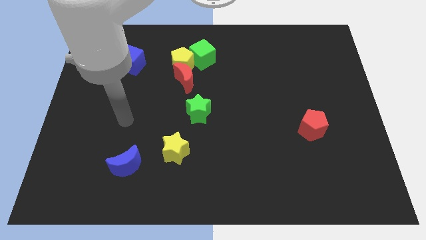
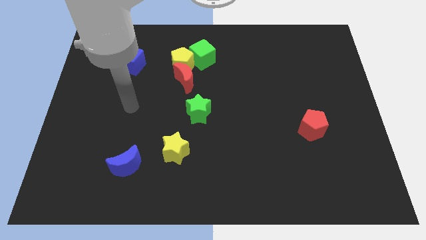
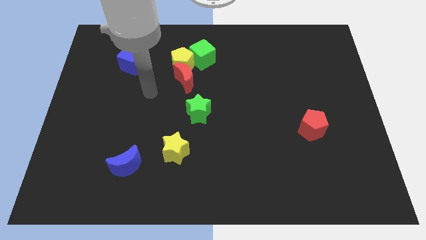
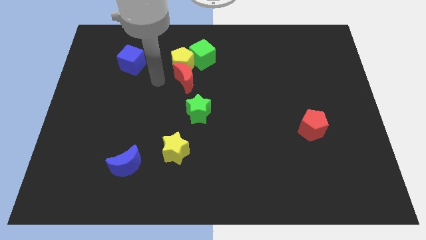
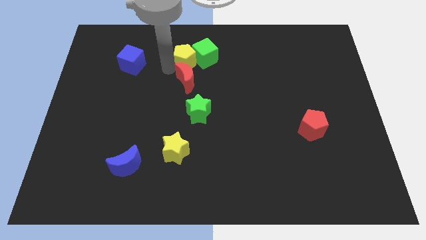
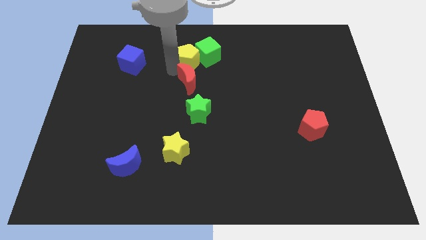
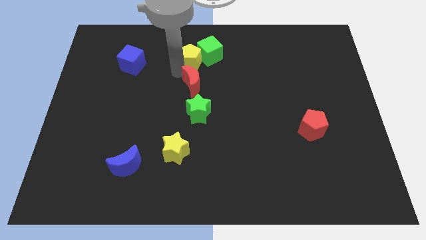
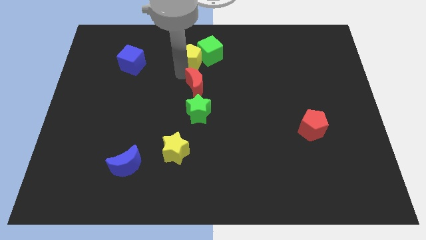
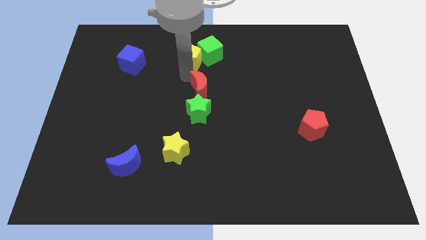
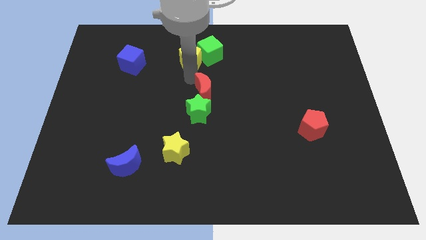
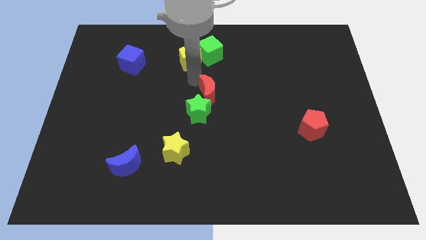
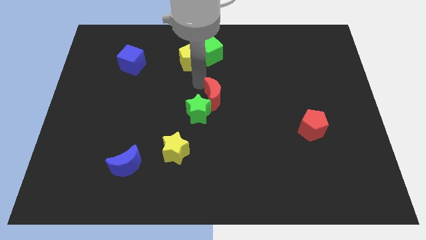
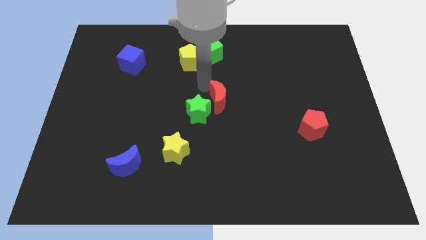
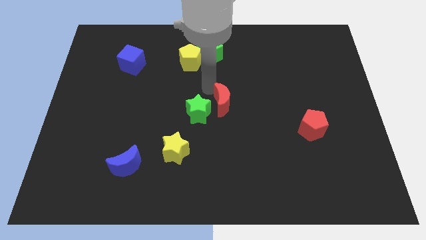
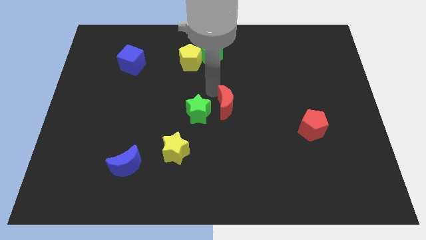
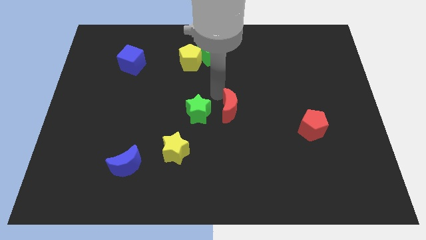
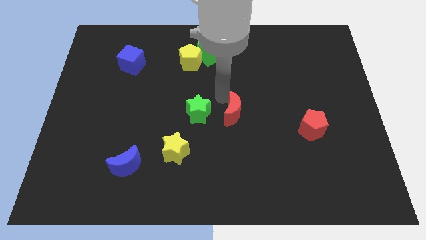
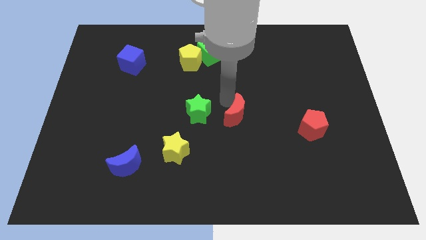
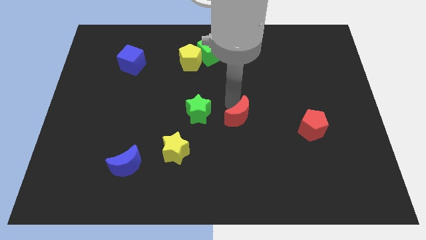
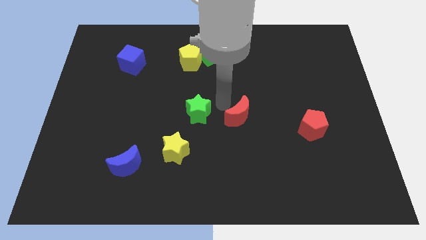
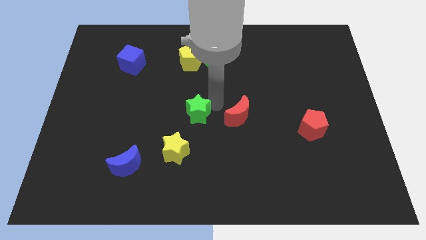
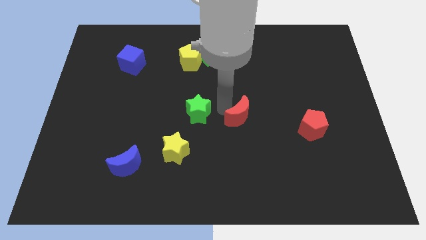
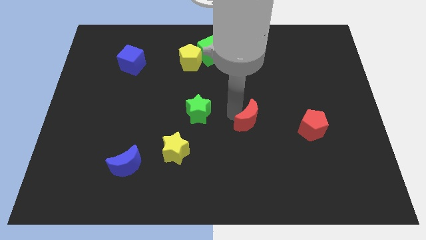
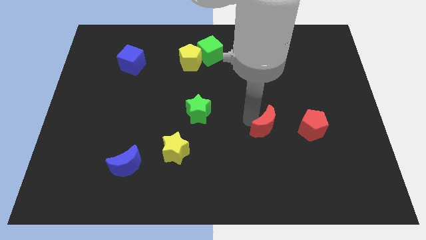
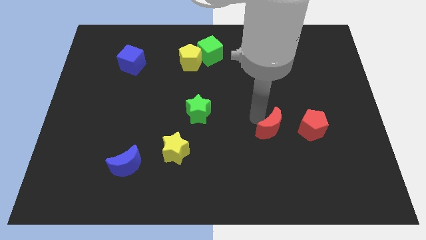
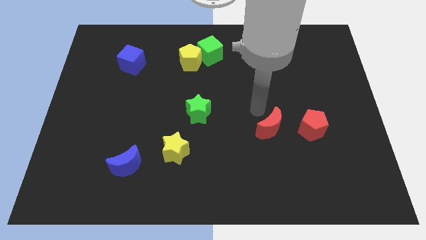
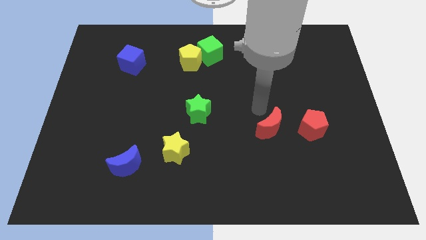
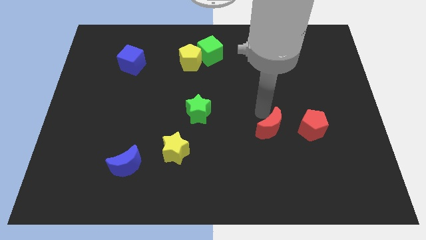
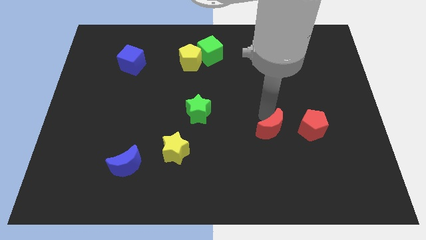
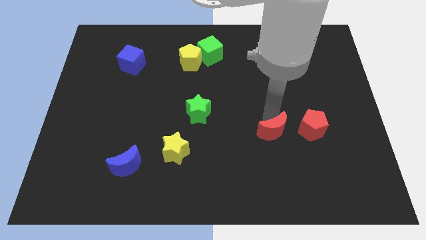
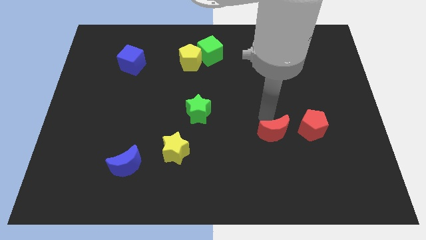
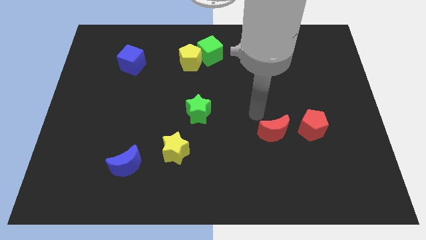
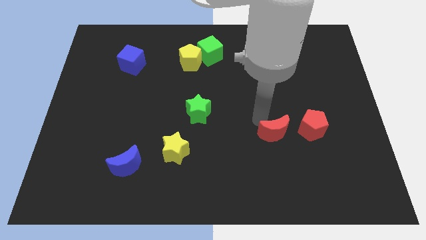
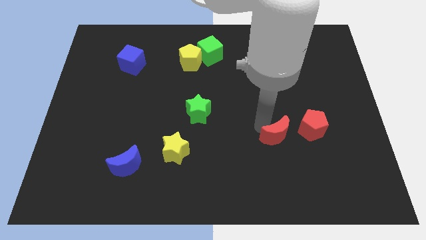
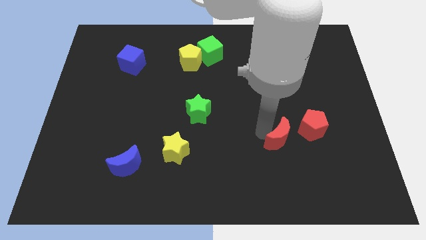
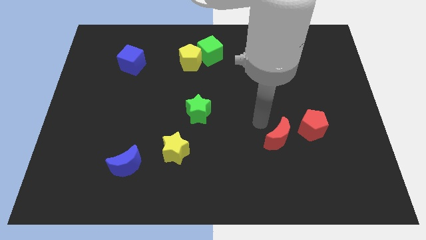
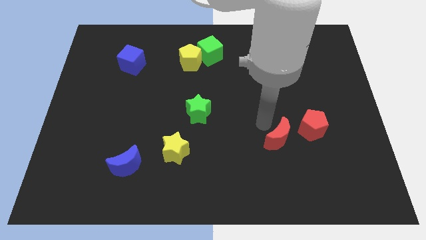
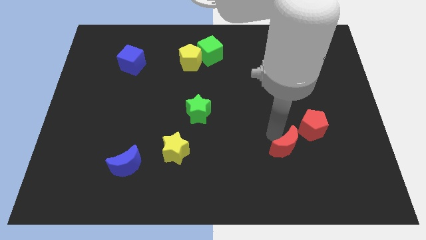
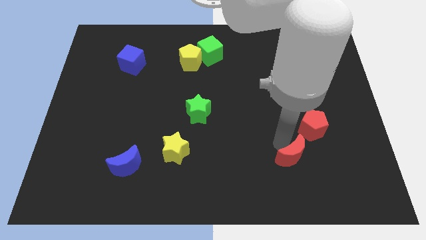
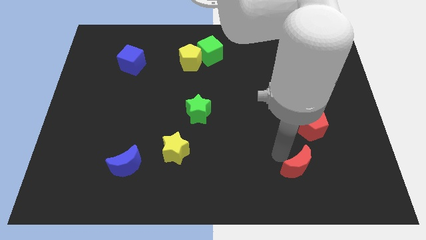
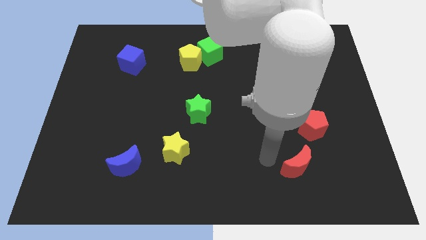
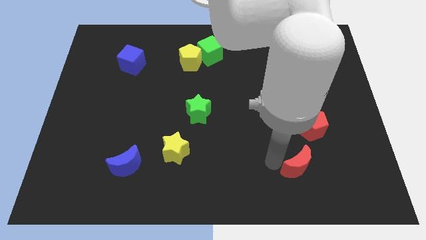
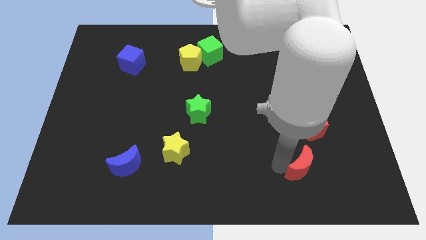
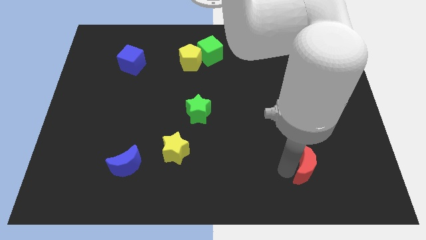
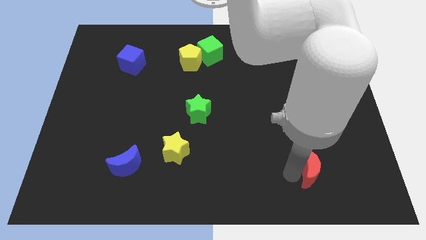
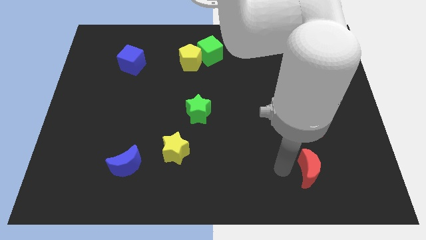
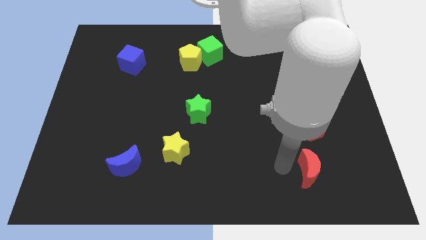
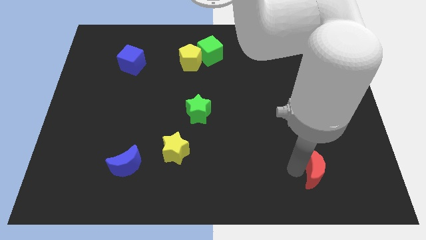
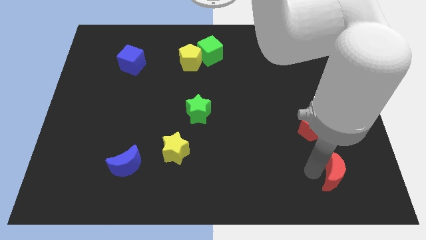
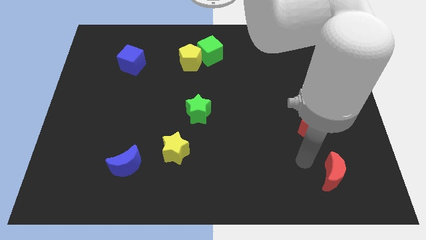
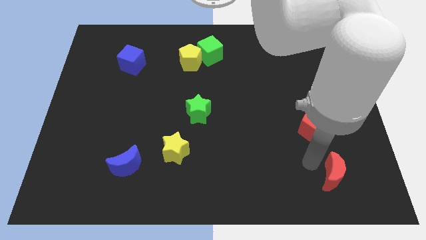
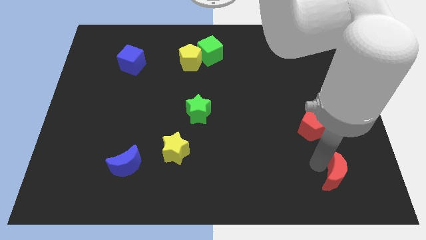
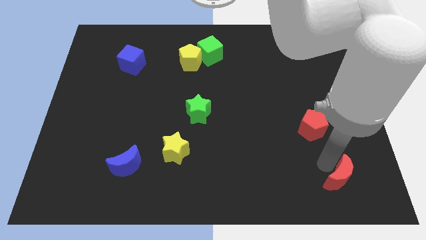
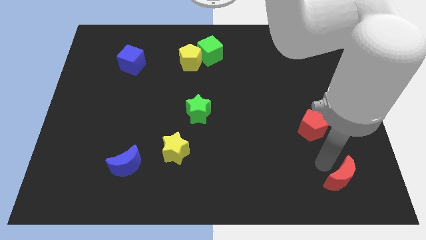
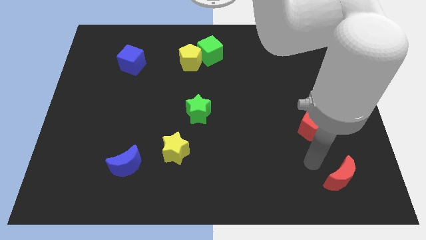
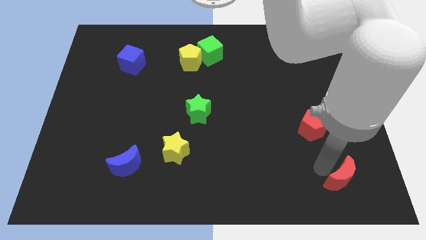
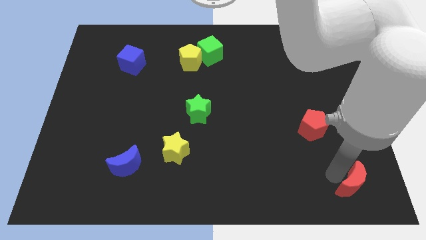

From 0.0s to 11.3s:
slide the red moon to the bottom right
